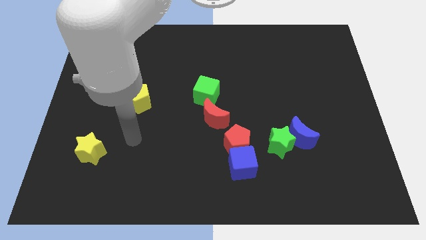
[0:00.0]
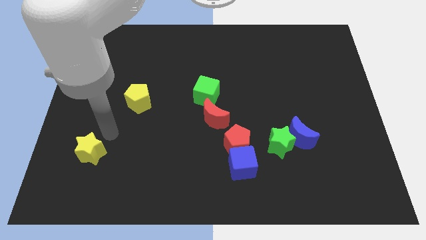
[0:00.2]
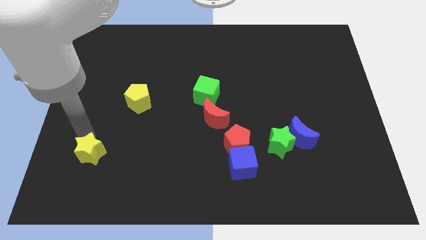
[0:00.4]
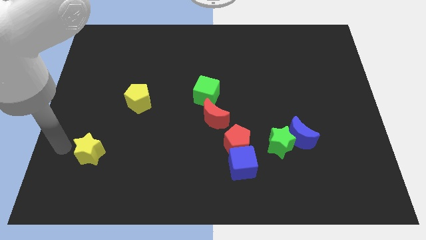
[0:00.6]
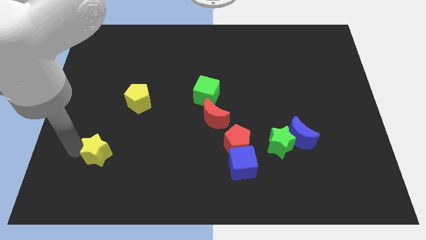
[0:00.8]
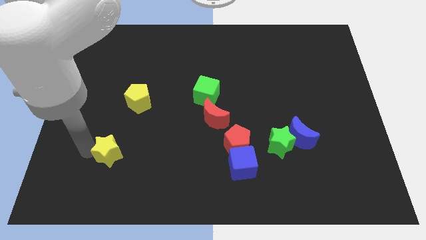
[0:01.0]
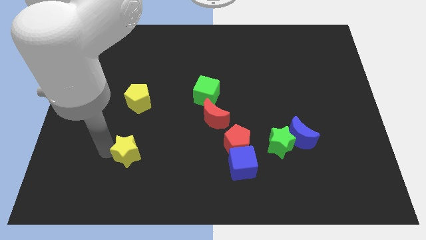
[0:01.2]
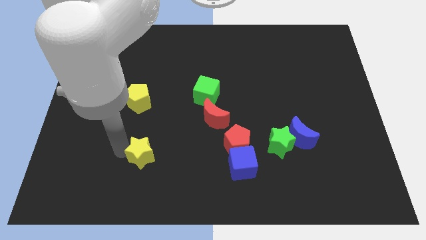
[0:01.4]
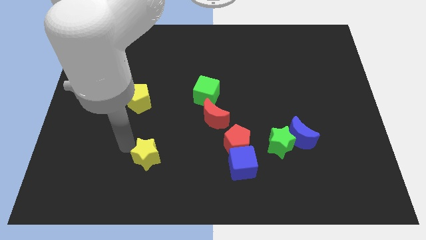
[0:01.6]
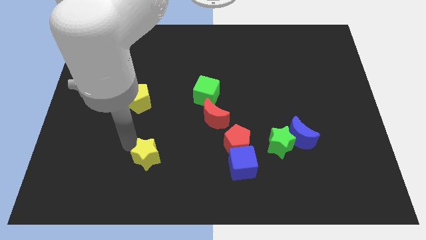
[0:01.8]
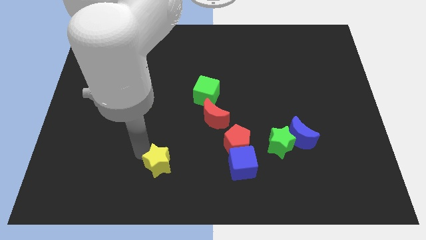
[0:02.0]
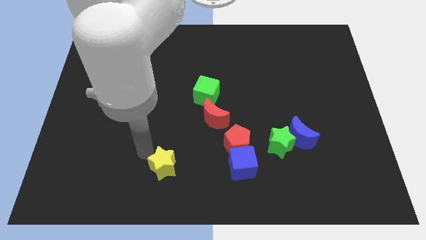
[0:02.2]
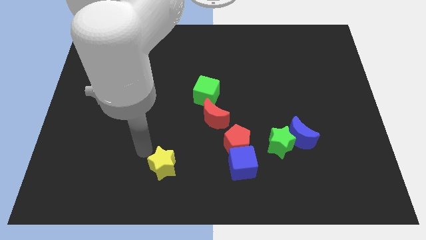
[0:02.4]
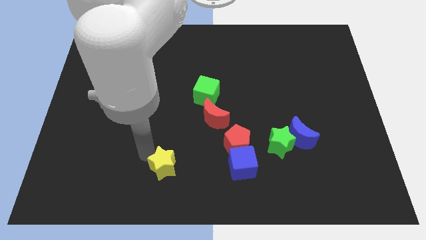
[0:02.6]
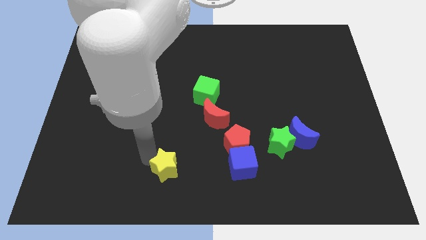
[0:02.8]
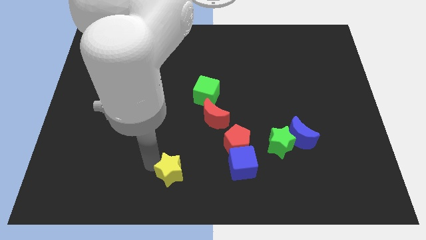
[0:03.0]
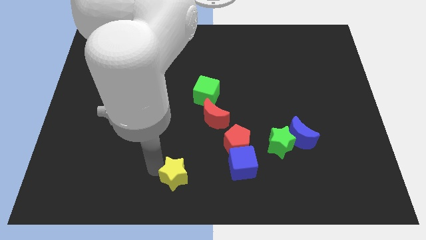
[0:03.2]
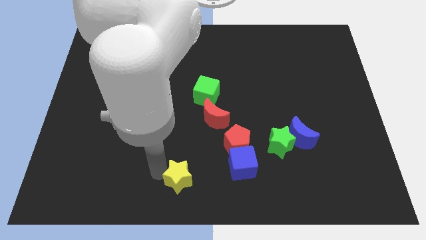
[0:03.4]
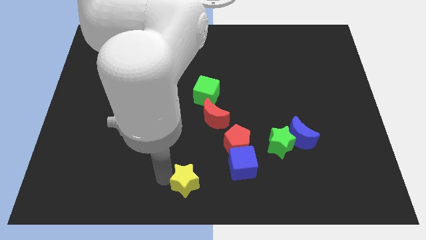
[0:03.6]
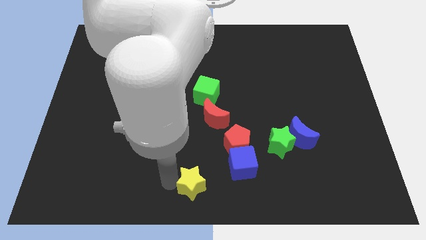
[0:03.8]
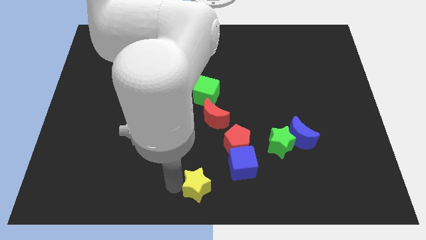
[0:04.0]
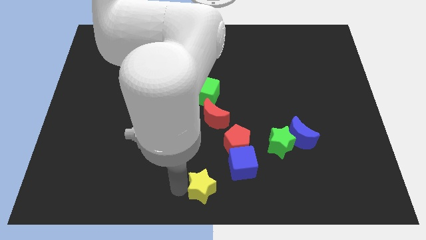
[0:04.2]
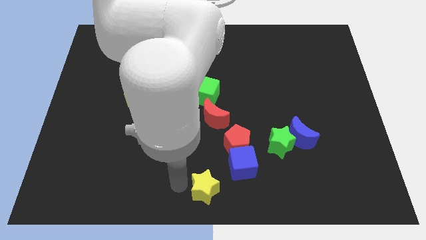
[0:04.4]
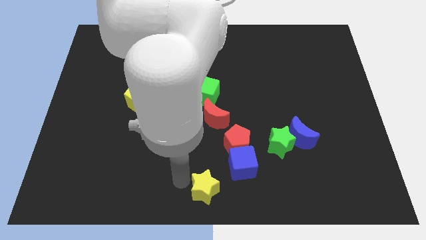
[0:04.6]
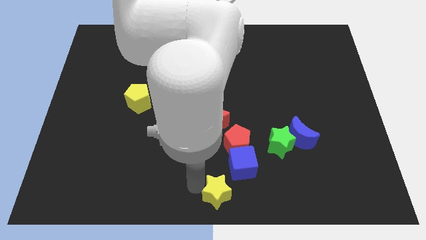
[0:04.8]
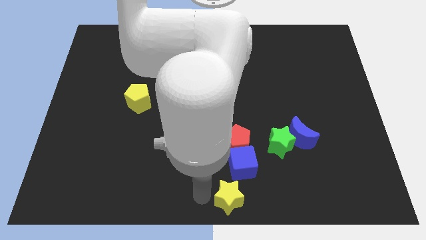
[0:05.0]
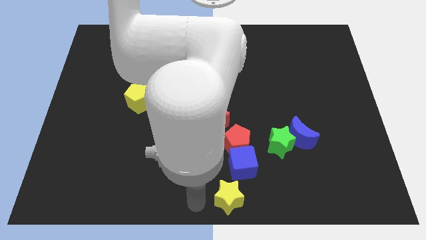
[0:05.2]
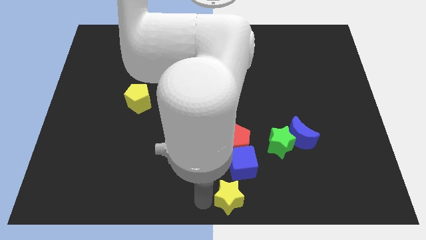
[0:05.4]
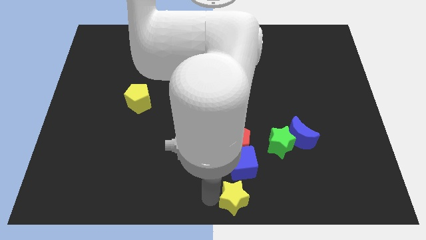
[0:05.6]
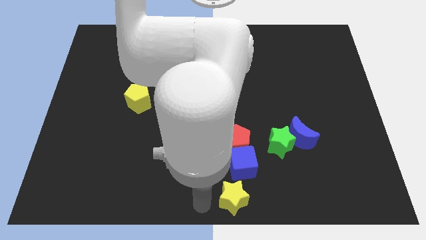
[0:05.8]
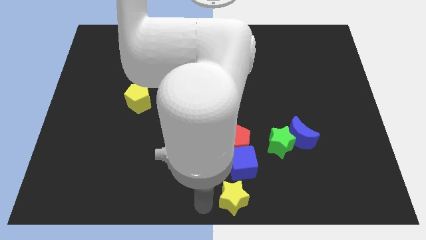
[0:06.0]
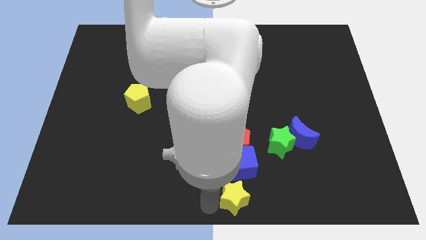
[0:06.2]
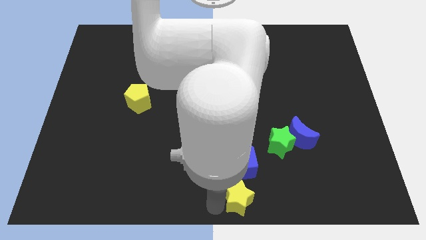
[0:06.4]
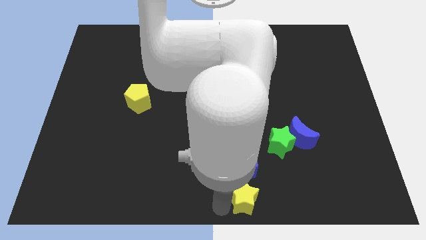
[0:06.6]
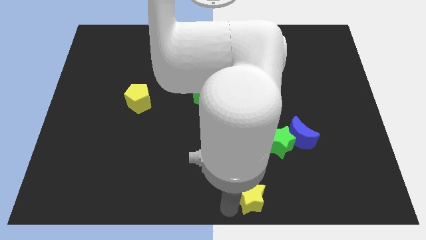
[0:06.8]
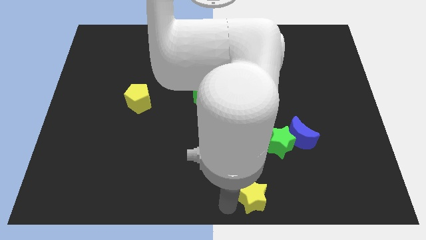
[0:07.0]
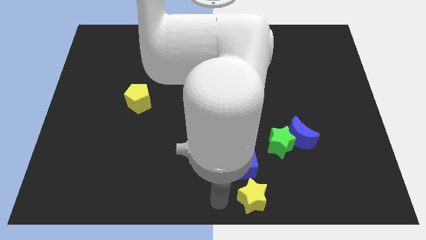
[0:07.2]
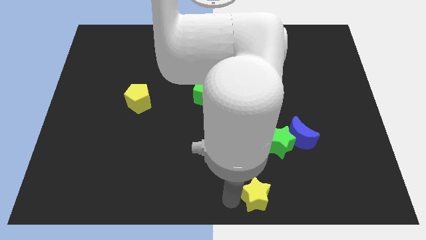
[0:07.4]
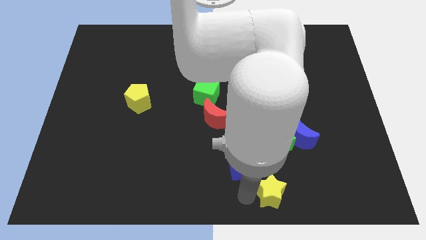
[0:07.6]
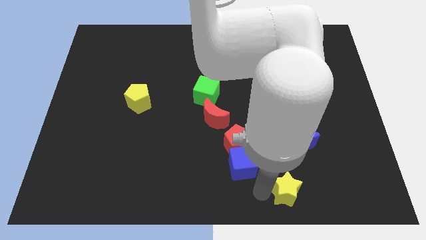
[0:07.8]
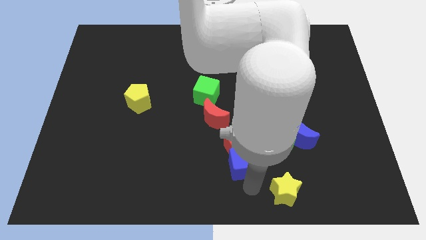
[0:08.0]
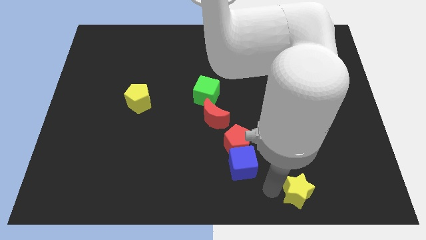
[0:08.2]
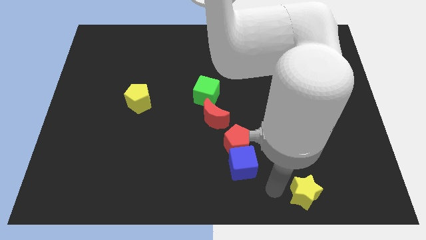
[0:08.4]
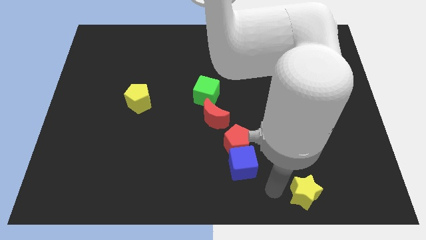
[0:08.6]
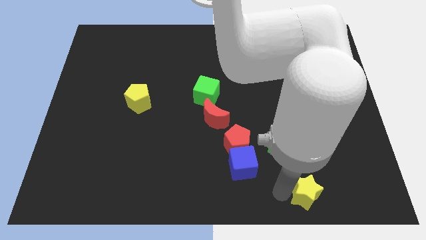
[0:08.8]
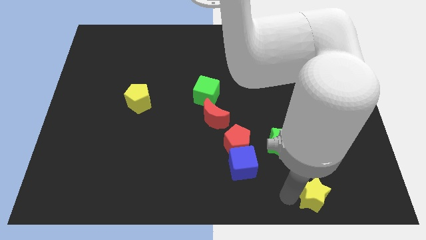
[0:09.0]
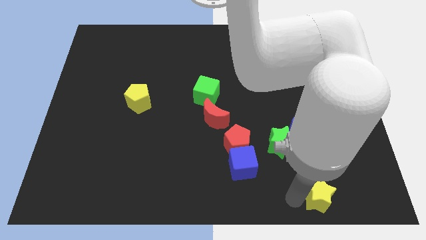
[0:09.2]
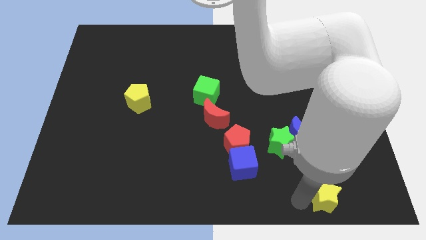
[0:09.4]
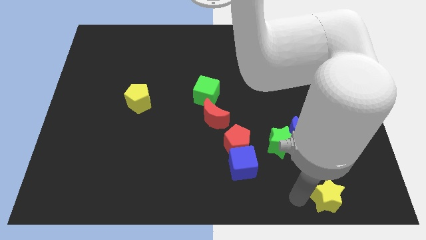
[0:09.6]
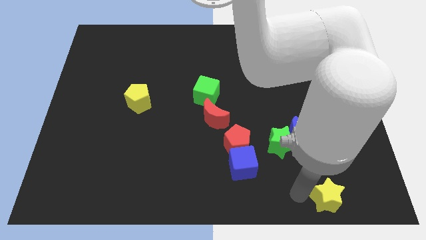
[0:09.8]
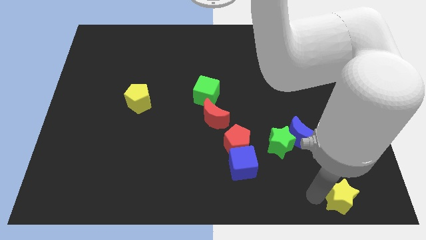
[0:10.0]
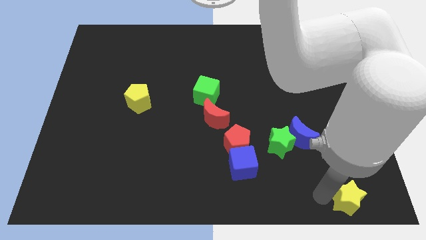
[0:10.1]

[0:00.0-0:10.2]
push the yellow star to the lower right corner

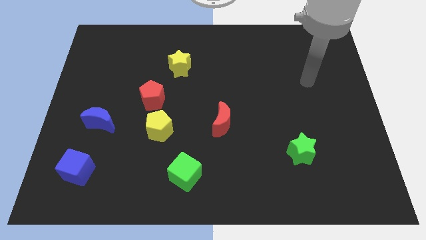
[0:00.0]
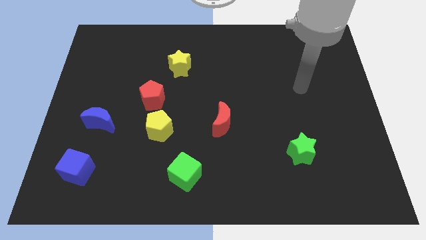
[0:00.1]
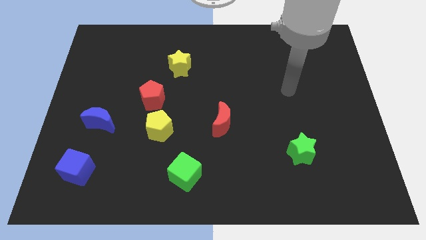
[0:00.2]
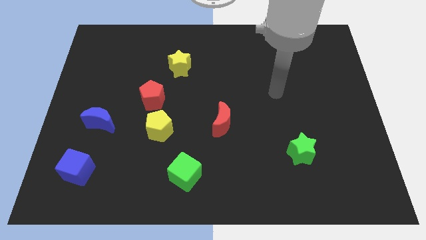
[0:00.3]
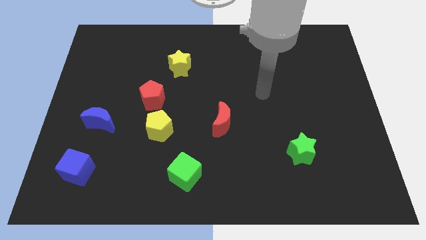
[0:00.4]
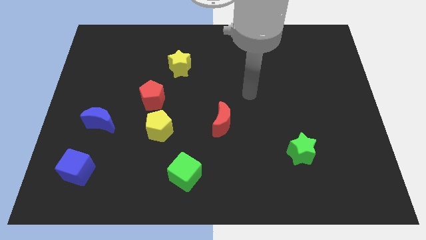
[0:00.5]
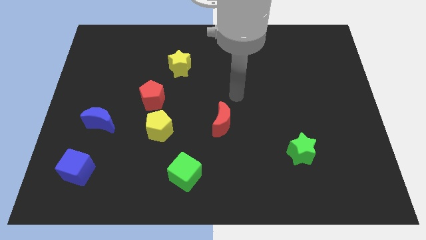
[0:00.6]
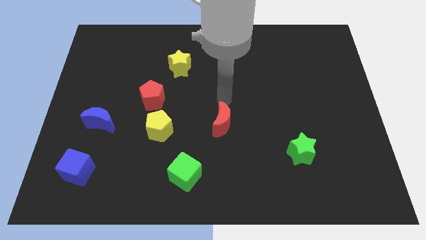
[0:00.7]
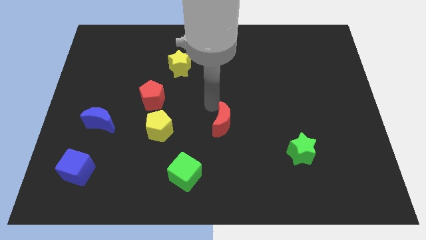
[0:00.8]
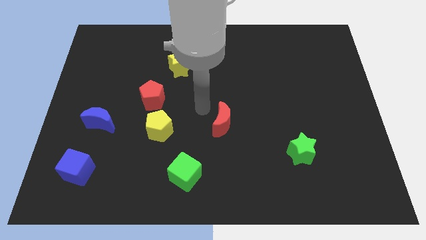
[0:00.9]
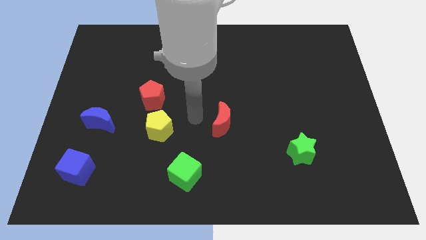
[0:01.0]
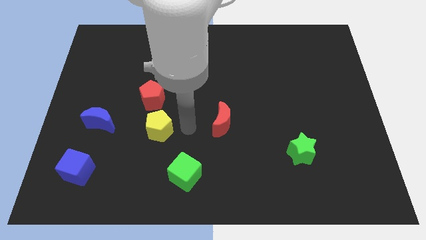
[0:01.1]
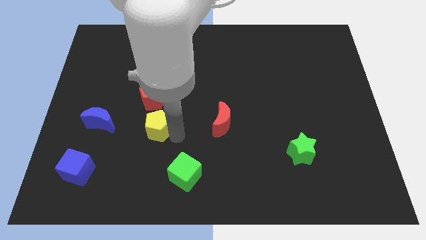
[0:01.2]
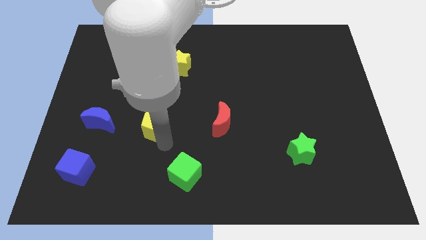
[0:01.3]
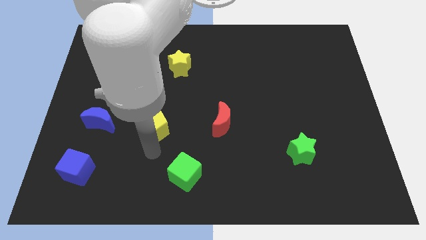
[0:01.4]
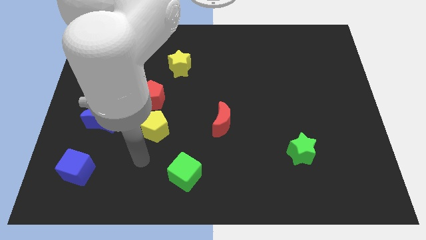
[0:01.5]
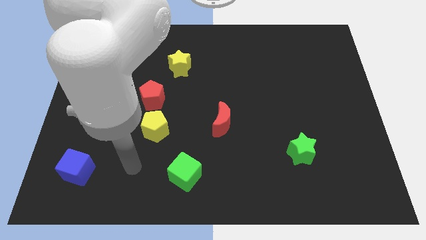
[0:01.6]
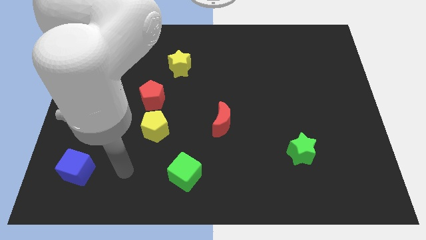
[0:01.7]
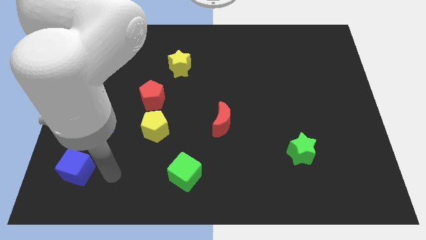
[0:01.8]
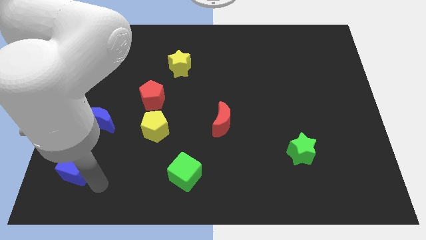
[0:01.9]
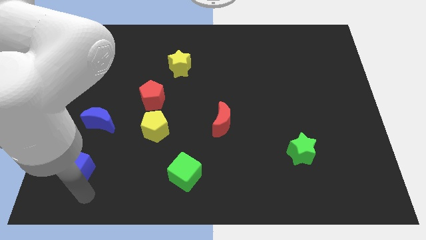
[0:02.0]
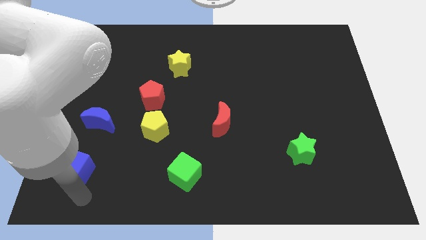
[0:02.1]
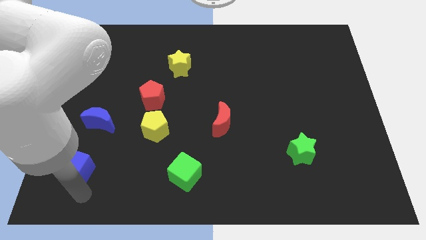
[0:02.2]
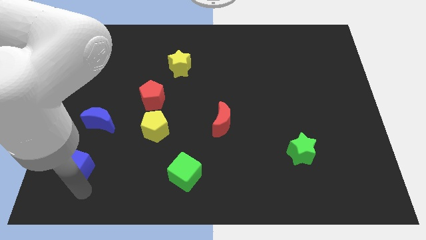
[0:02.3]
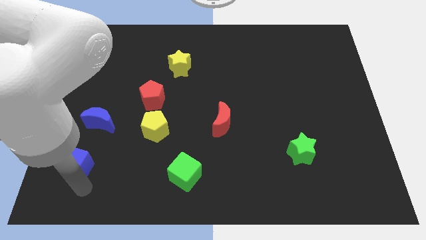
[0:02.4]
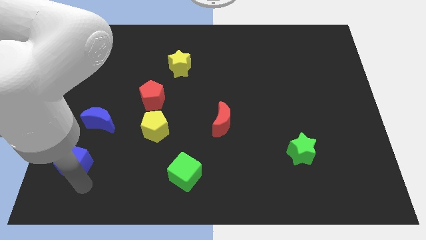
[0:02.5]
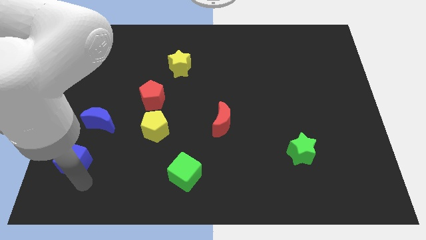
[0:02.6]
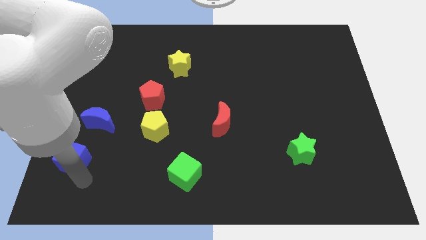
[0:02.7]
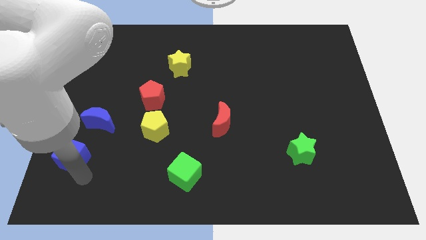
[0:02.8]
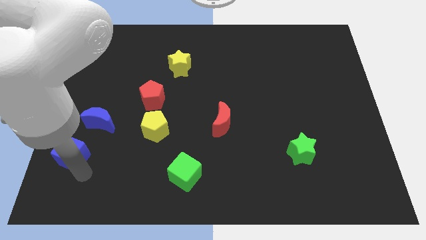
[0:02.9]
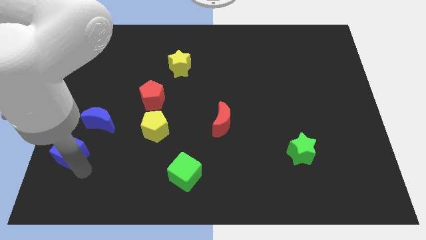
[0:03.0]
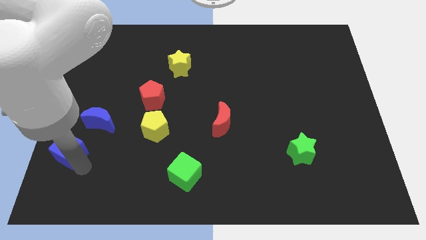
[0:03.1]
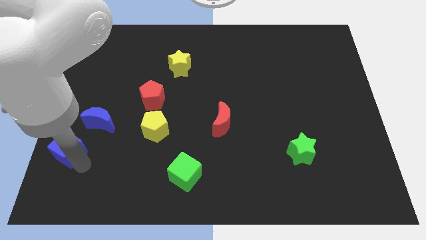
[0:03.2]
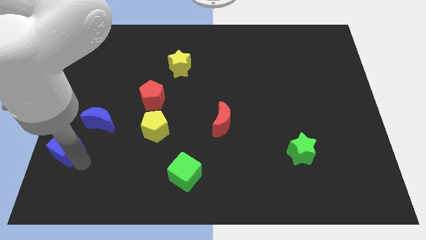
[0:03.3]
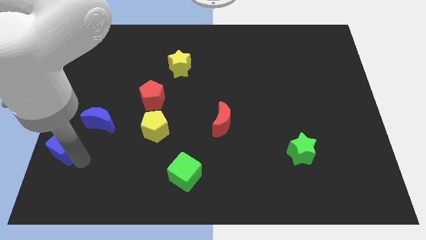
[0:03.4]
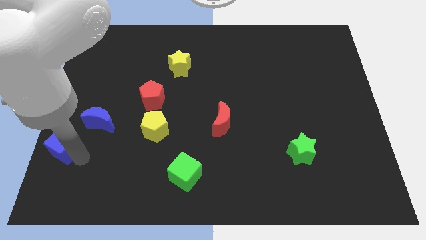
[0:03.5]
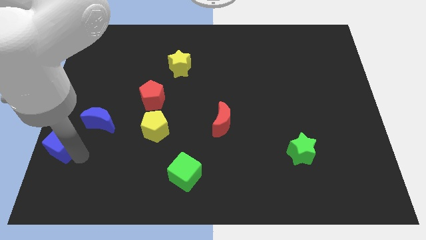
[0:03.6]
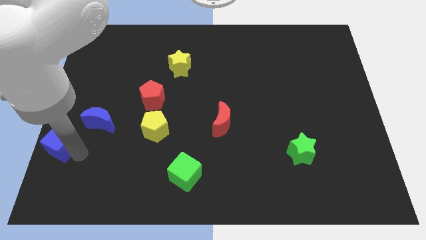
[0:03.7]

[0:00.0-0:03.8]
slide the blue cube to the left side
